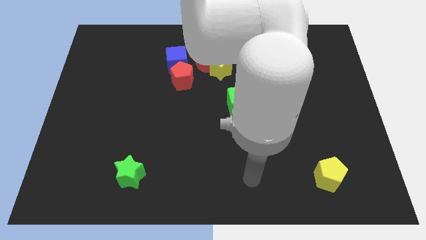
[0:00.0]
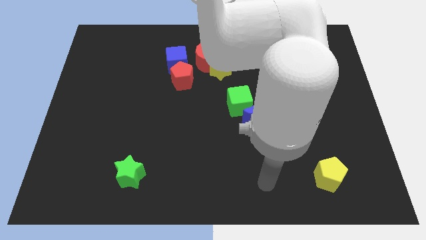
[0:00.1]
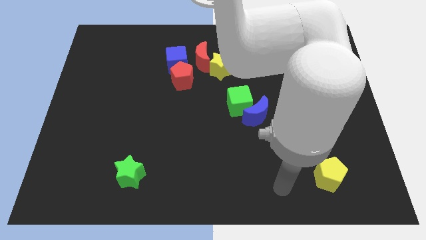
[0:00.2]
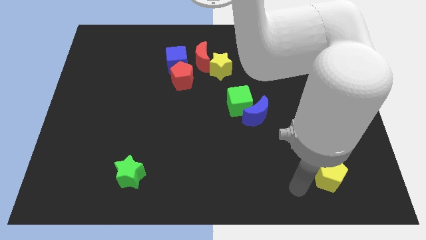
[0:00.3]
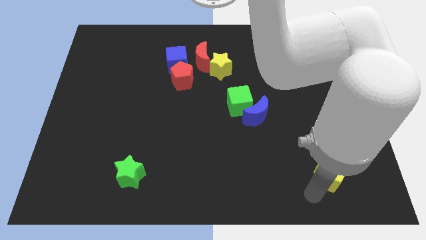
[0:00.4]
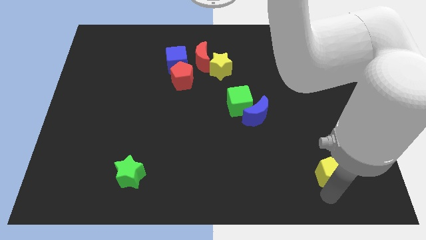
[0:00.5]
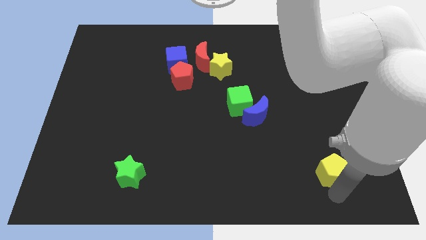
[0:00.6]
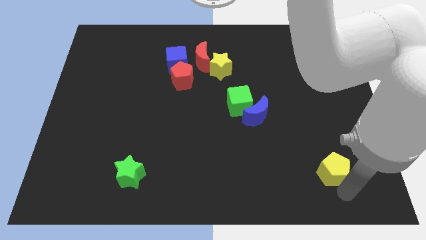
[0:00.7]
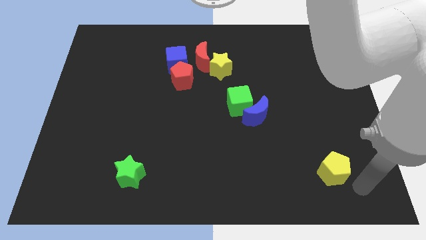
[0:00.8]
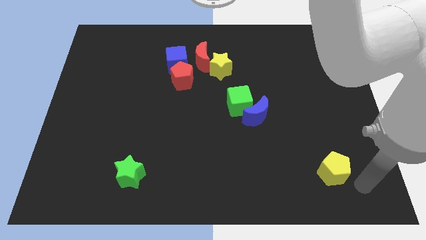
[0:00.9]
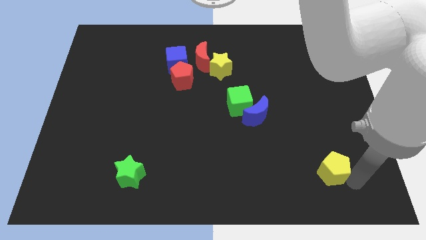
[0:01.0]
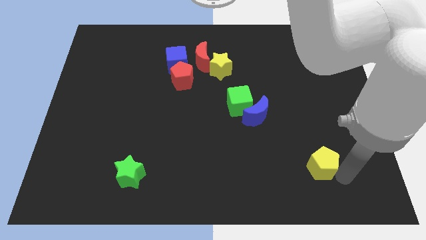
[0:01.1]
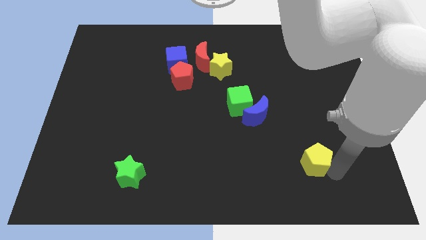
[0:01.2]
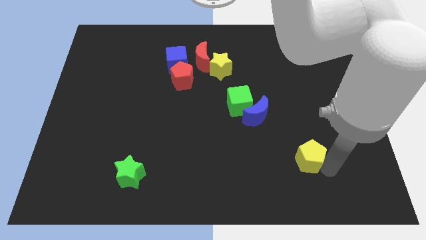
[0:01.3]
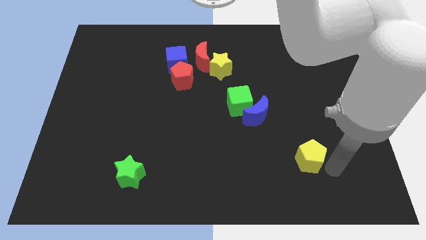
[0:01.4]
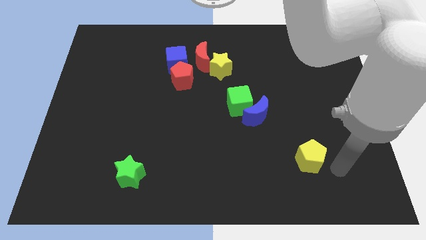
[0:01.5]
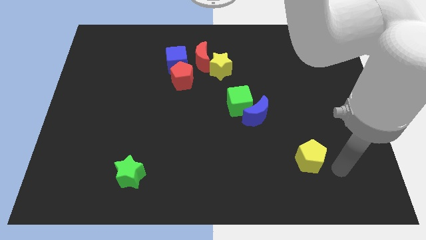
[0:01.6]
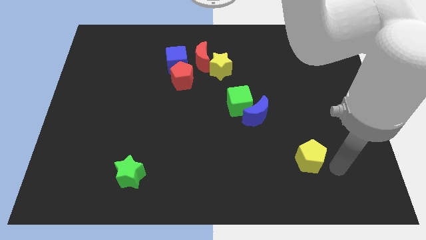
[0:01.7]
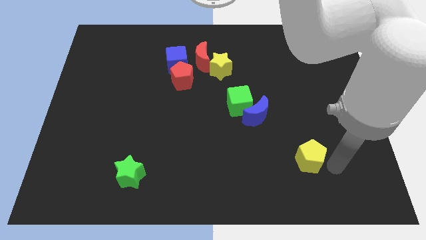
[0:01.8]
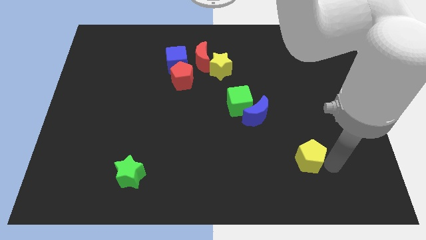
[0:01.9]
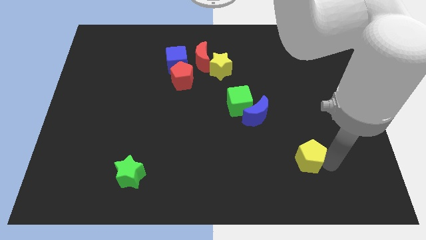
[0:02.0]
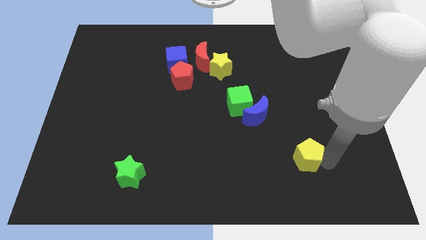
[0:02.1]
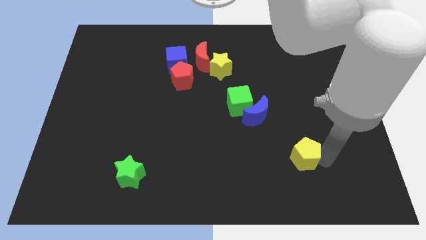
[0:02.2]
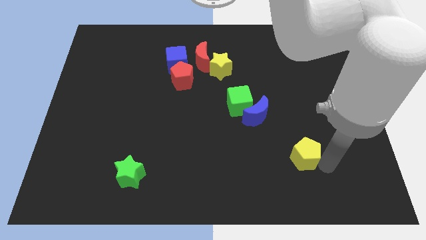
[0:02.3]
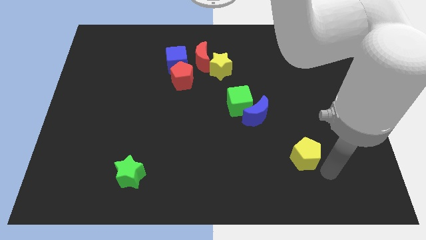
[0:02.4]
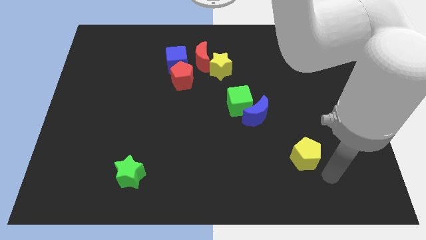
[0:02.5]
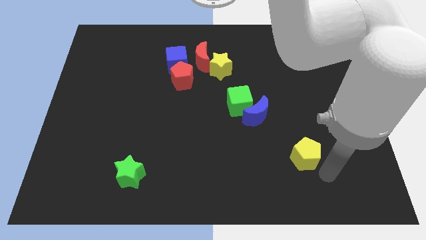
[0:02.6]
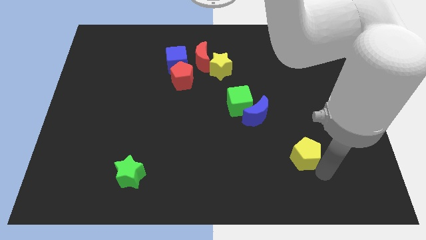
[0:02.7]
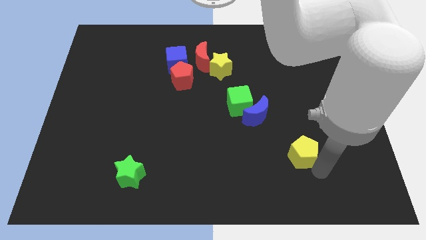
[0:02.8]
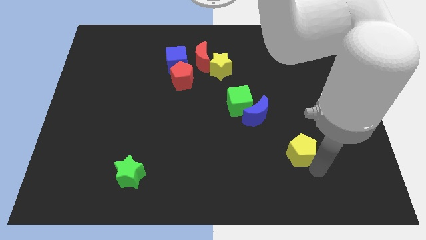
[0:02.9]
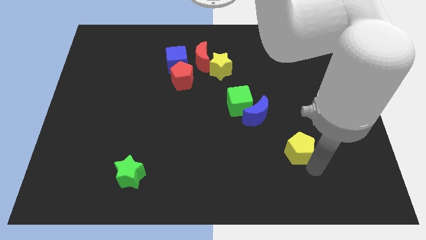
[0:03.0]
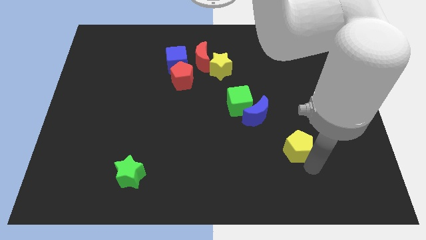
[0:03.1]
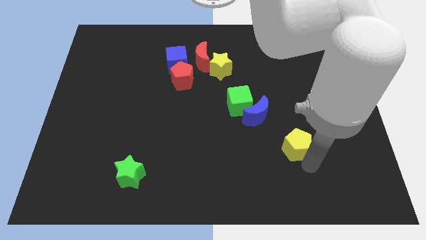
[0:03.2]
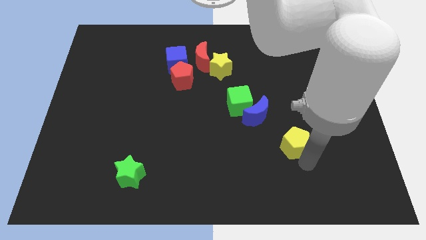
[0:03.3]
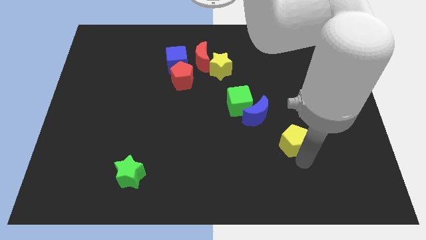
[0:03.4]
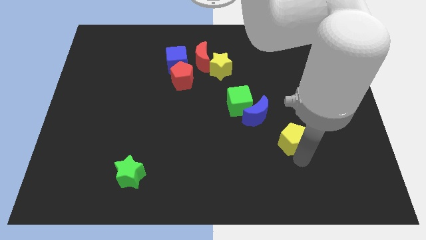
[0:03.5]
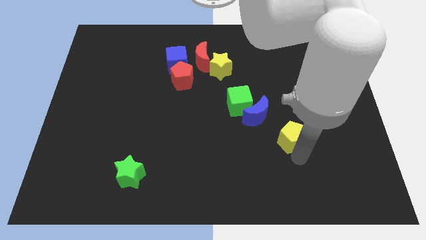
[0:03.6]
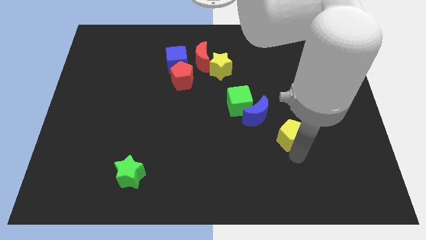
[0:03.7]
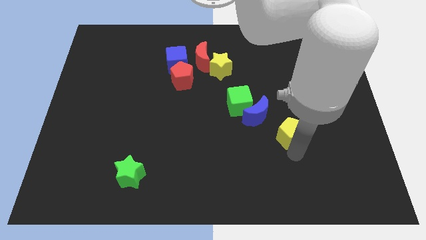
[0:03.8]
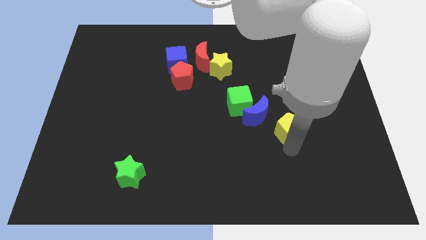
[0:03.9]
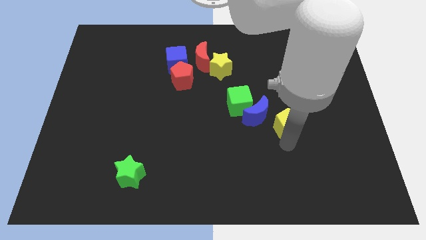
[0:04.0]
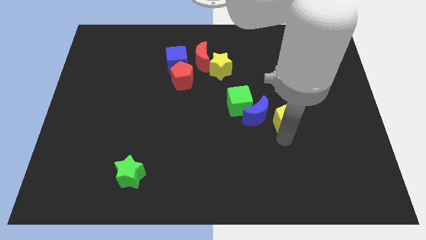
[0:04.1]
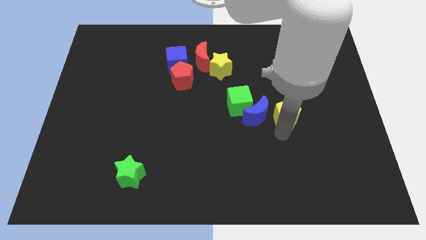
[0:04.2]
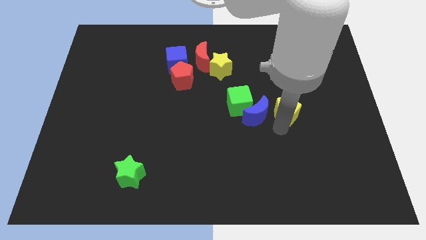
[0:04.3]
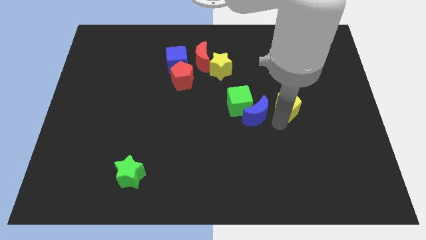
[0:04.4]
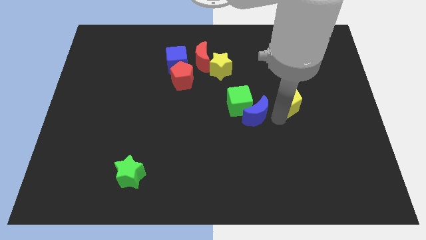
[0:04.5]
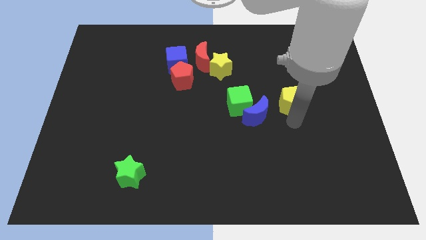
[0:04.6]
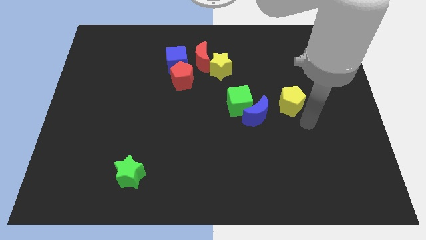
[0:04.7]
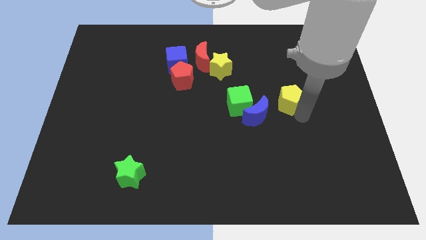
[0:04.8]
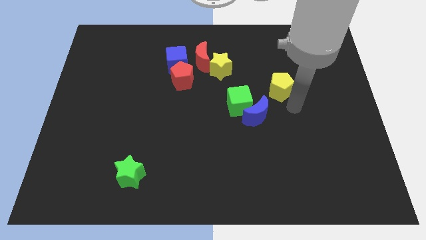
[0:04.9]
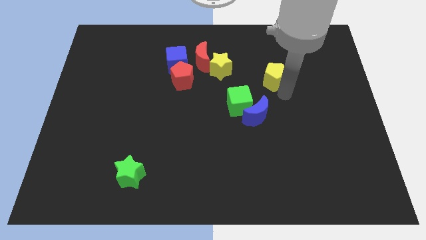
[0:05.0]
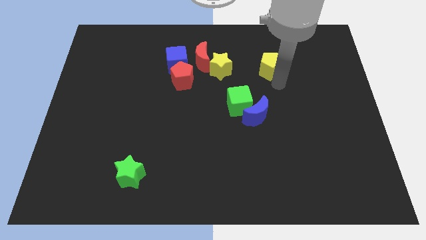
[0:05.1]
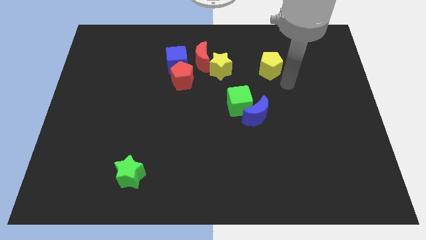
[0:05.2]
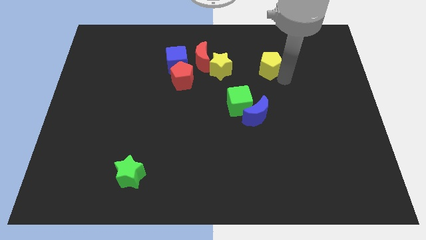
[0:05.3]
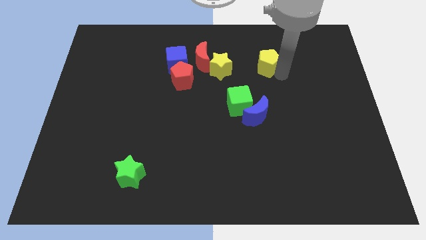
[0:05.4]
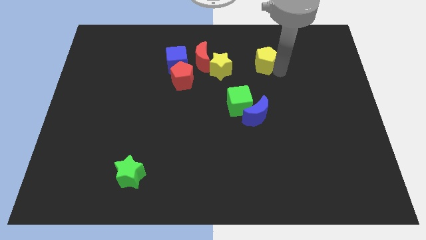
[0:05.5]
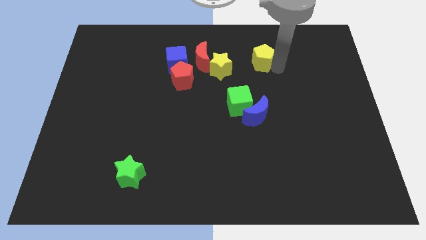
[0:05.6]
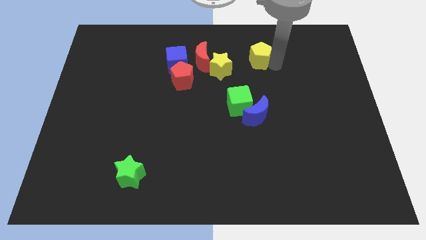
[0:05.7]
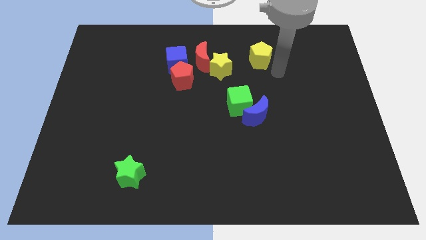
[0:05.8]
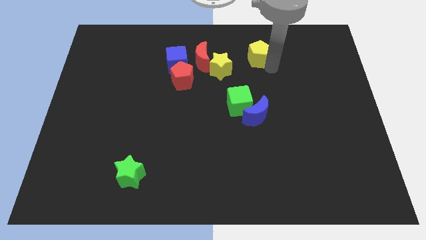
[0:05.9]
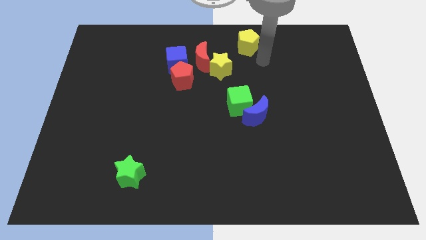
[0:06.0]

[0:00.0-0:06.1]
push the yellow pentagon to the top side
